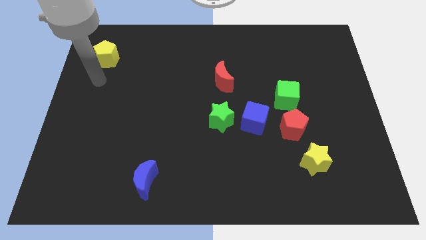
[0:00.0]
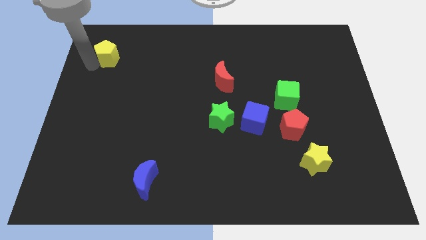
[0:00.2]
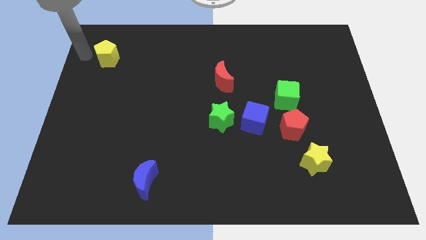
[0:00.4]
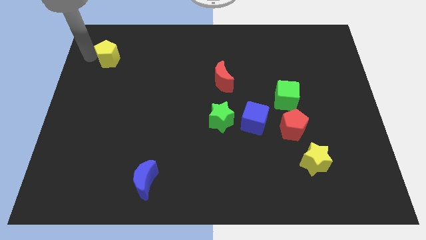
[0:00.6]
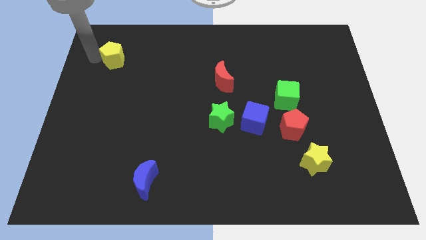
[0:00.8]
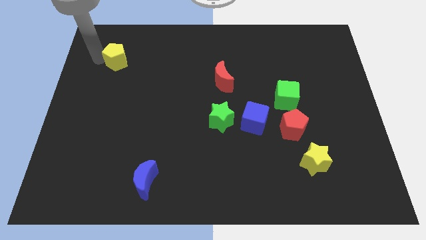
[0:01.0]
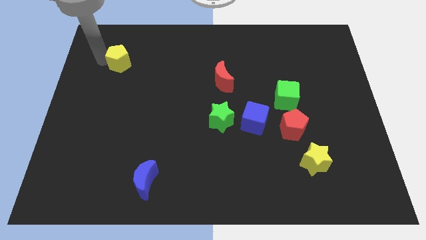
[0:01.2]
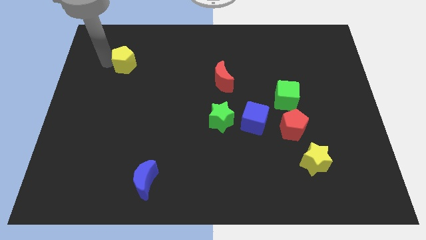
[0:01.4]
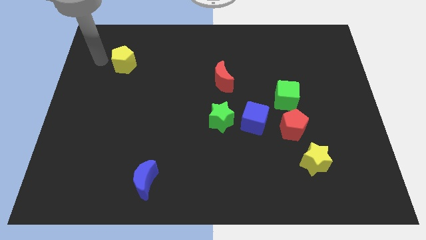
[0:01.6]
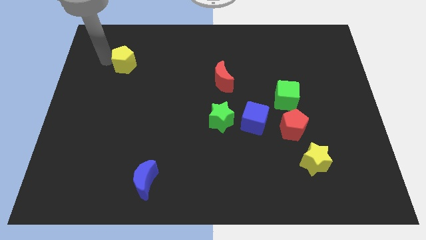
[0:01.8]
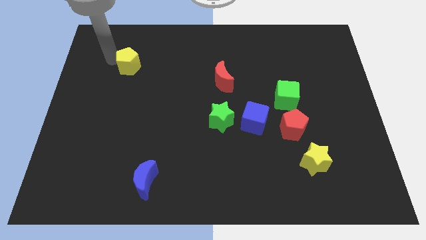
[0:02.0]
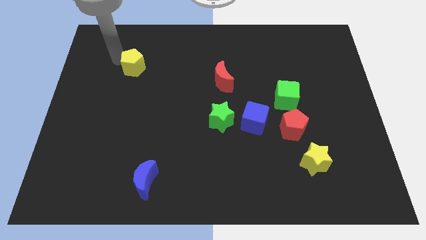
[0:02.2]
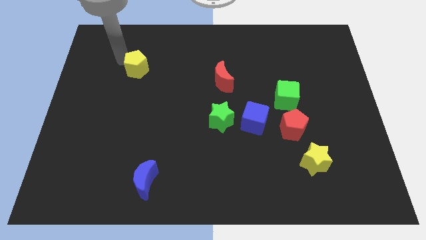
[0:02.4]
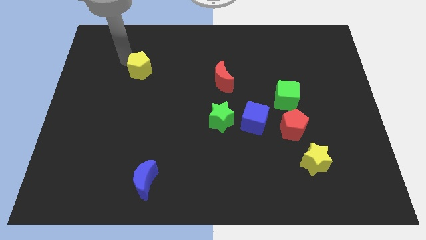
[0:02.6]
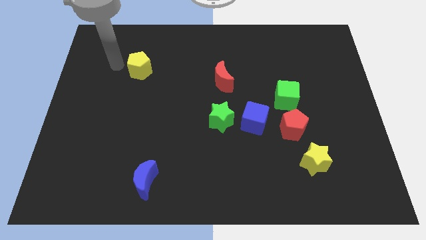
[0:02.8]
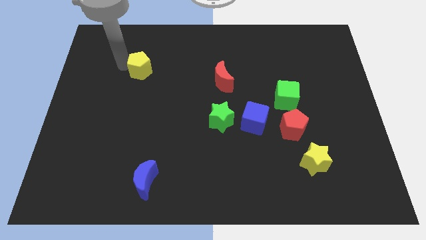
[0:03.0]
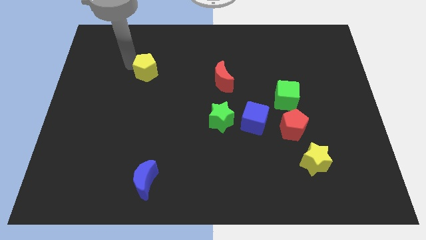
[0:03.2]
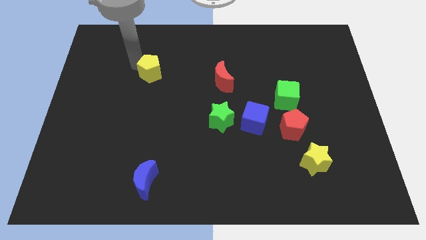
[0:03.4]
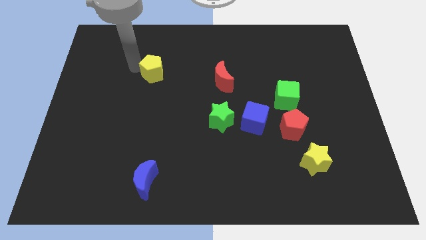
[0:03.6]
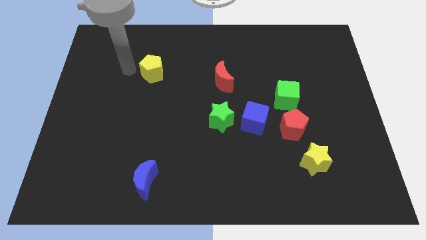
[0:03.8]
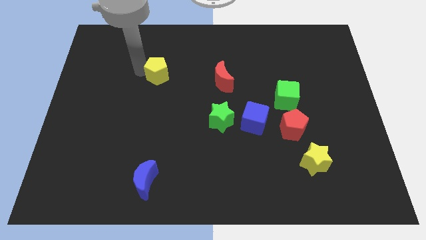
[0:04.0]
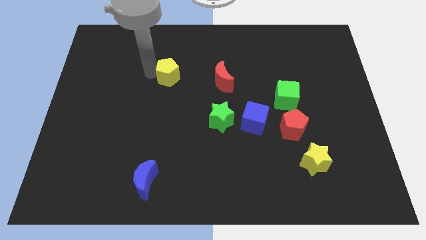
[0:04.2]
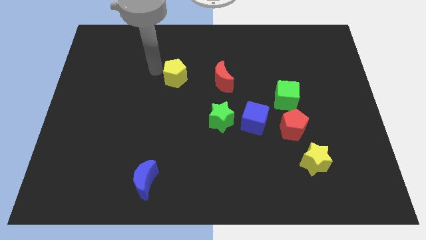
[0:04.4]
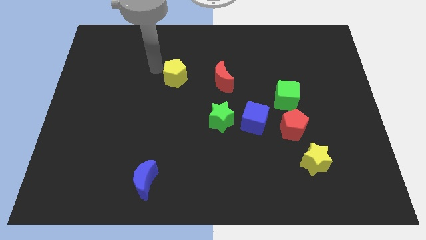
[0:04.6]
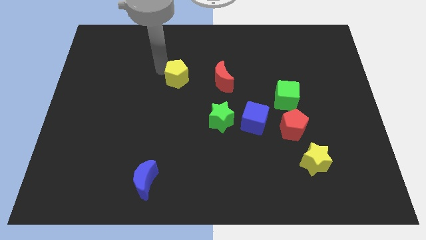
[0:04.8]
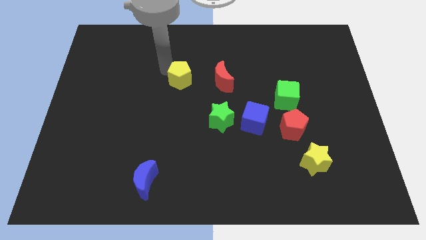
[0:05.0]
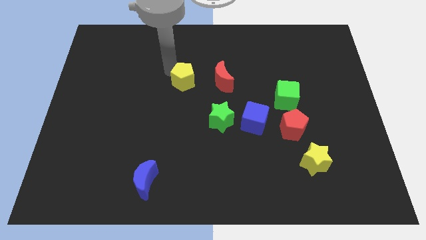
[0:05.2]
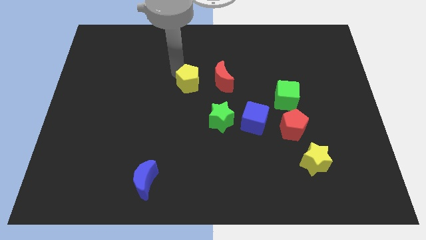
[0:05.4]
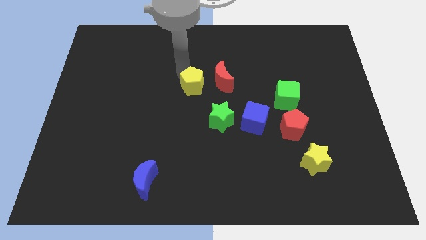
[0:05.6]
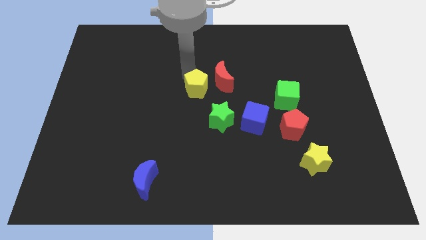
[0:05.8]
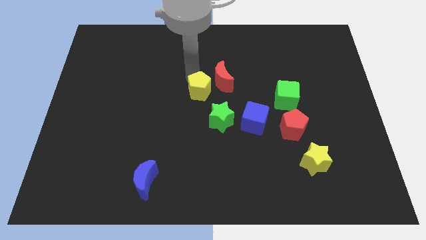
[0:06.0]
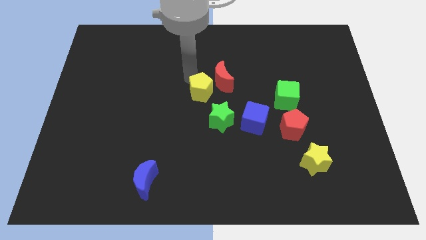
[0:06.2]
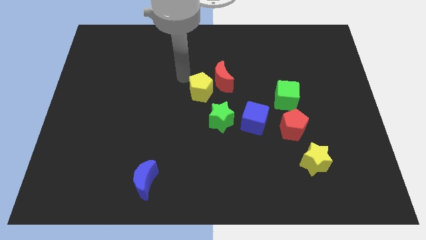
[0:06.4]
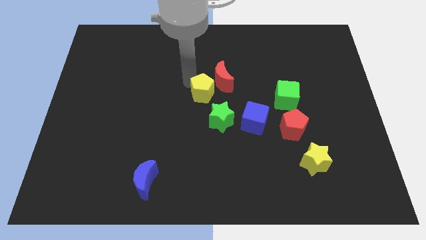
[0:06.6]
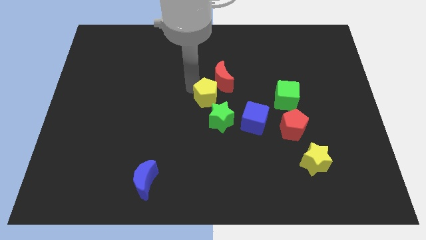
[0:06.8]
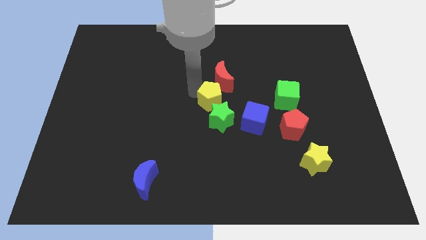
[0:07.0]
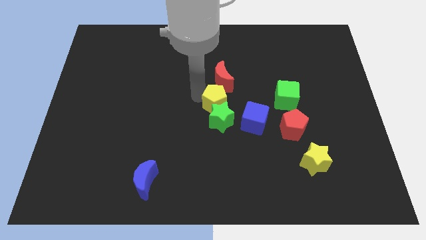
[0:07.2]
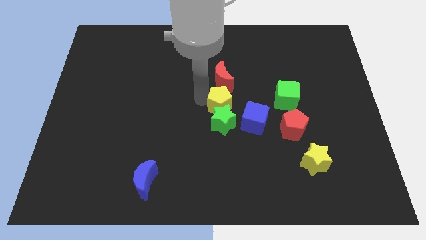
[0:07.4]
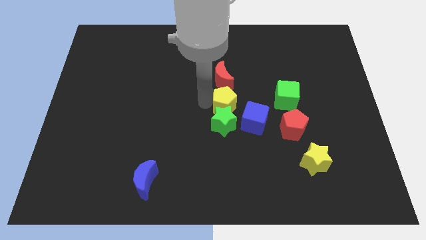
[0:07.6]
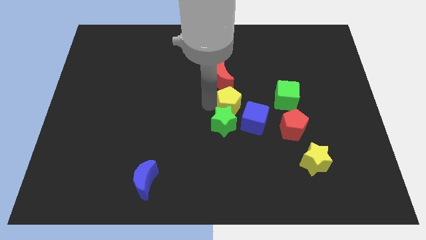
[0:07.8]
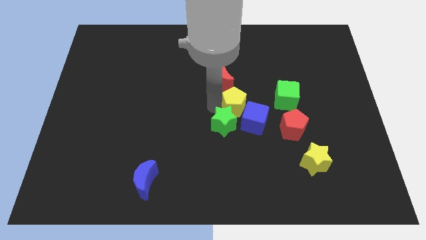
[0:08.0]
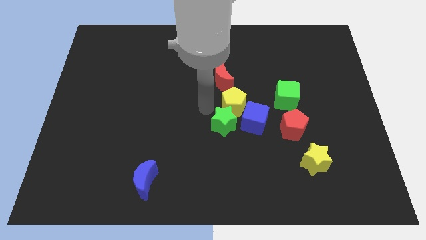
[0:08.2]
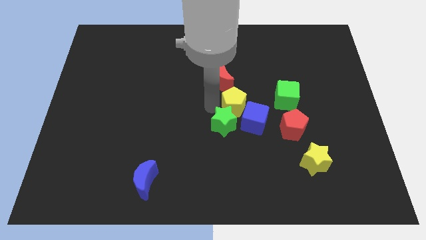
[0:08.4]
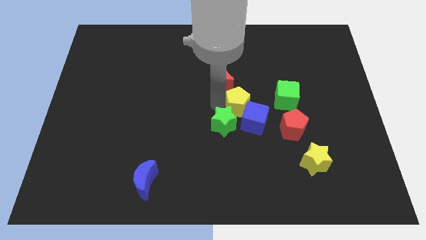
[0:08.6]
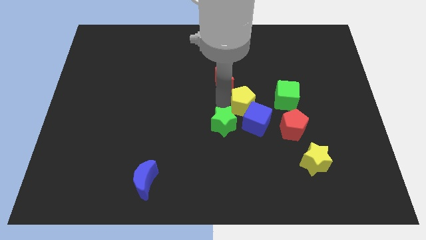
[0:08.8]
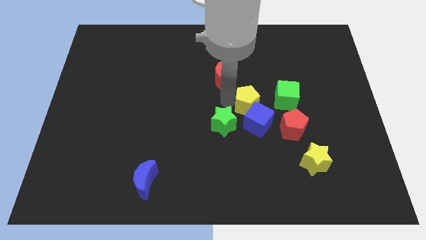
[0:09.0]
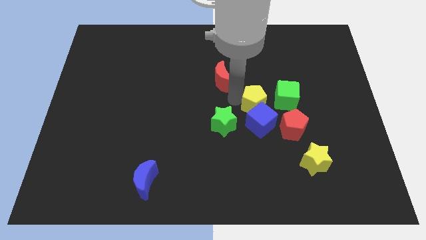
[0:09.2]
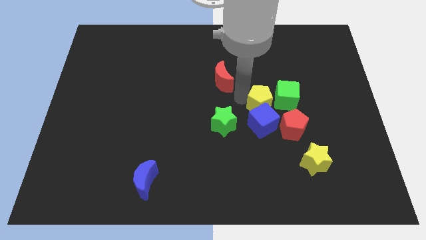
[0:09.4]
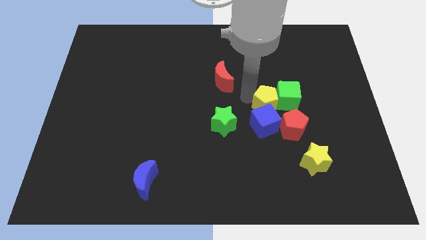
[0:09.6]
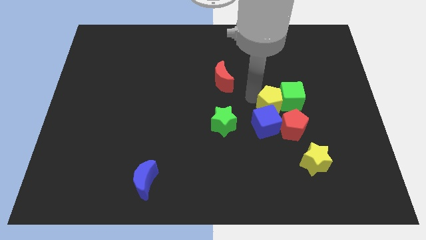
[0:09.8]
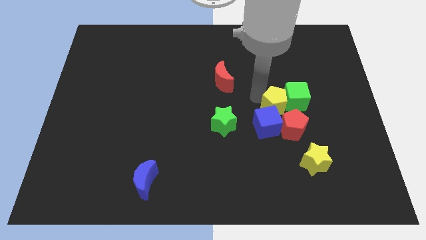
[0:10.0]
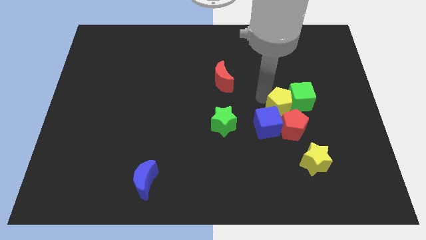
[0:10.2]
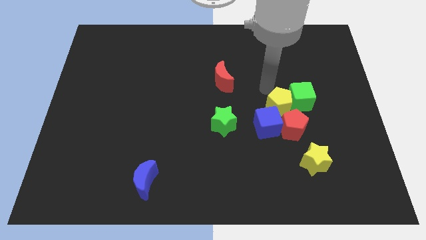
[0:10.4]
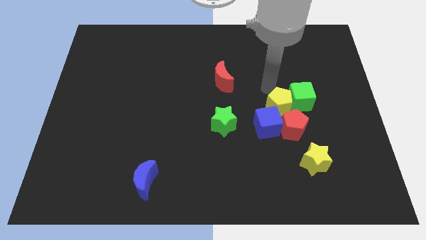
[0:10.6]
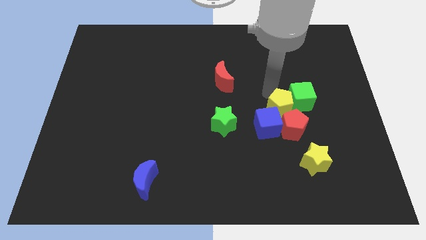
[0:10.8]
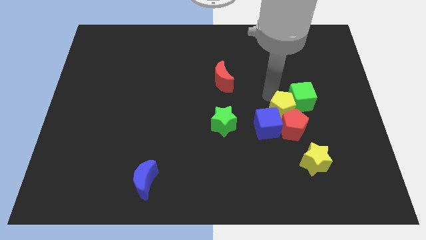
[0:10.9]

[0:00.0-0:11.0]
move the yellow pentagon close to the red pentagon

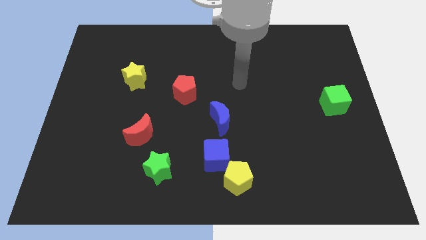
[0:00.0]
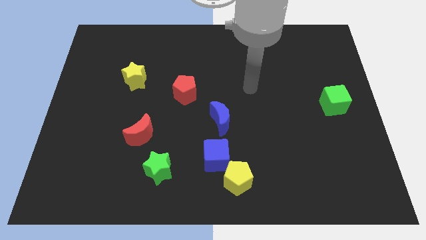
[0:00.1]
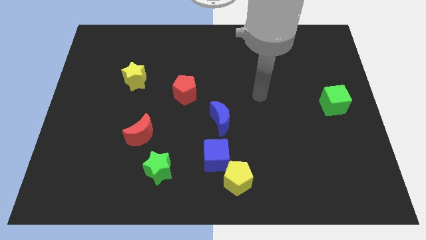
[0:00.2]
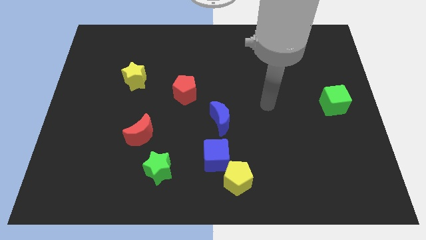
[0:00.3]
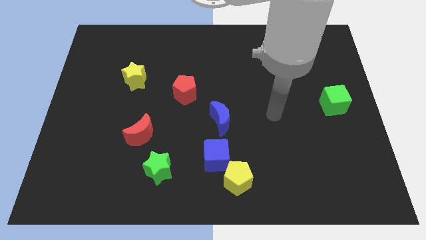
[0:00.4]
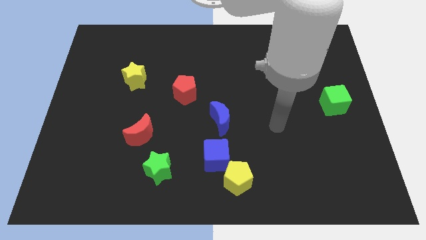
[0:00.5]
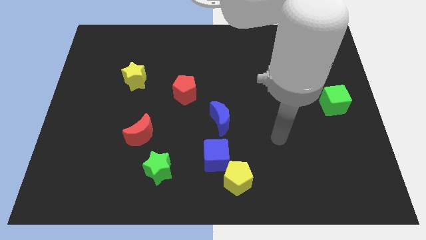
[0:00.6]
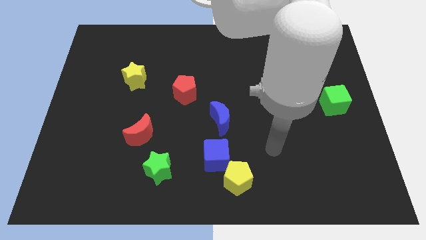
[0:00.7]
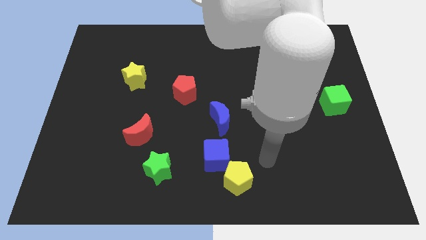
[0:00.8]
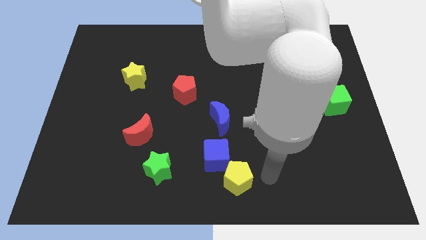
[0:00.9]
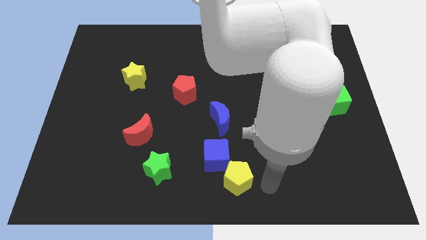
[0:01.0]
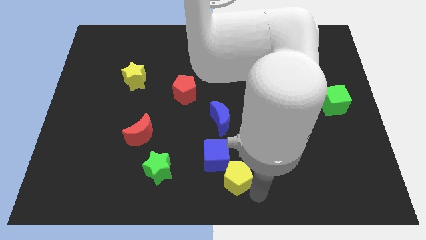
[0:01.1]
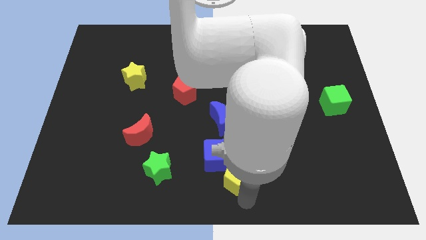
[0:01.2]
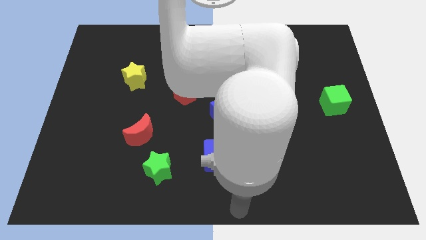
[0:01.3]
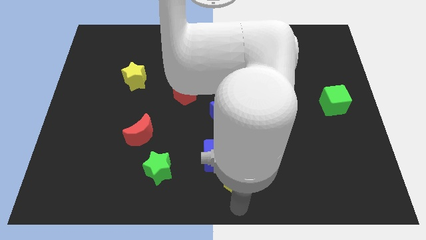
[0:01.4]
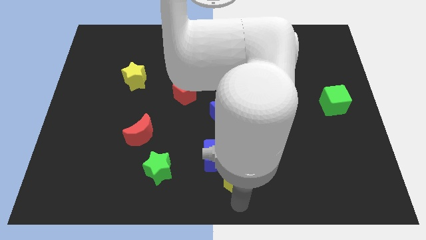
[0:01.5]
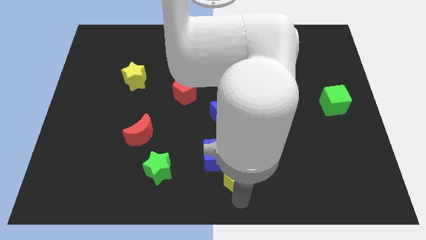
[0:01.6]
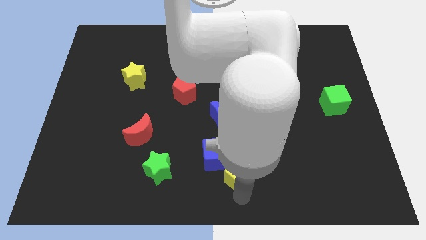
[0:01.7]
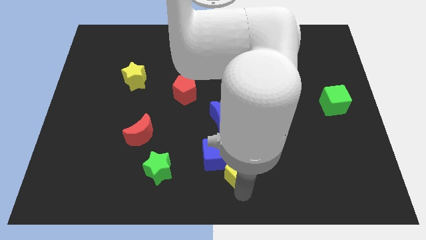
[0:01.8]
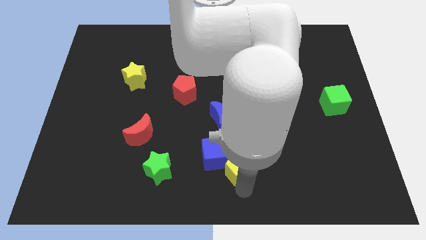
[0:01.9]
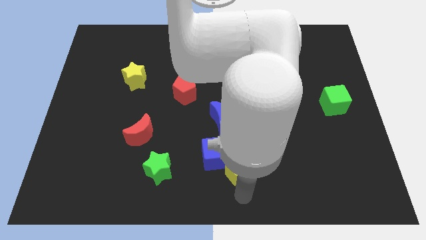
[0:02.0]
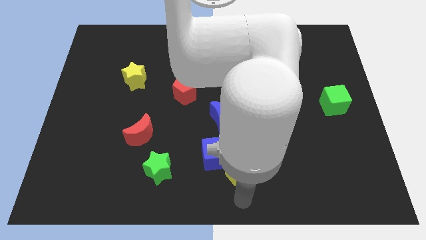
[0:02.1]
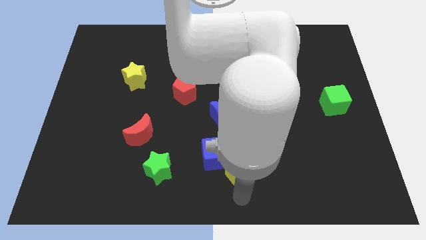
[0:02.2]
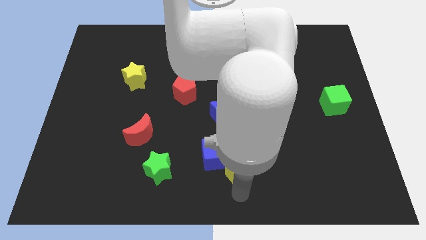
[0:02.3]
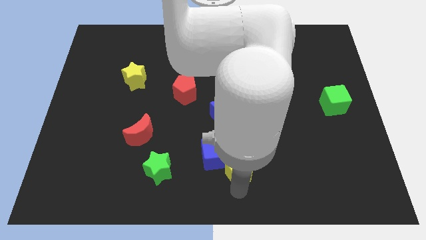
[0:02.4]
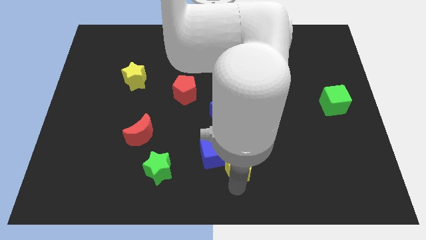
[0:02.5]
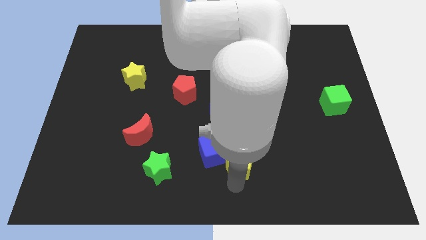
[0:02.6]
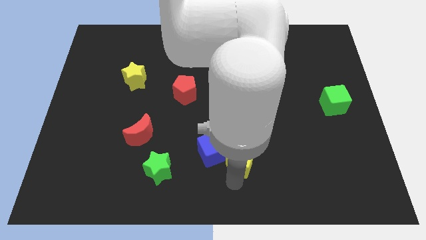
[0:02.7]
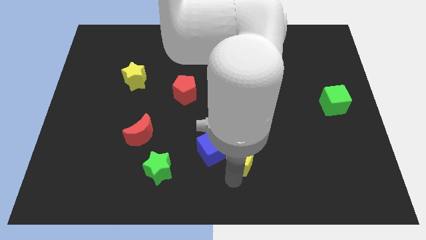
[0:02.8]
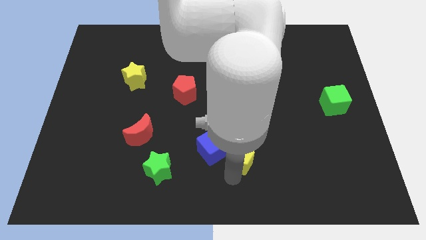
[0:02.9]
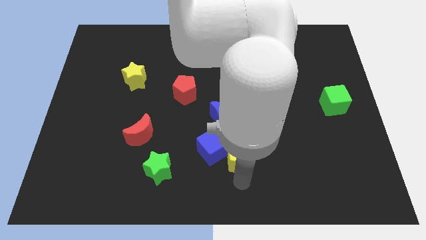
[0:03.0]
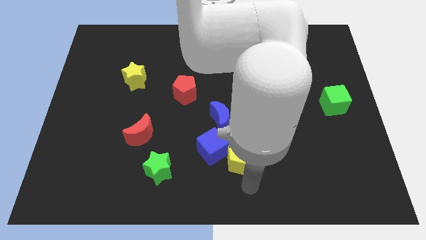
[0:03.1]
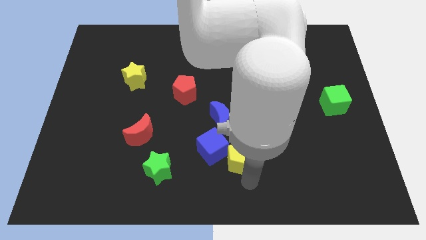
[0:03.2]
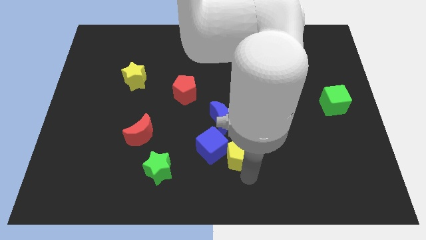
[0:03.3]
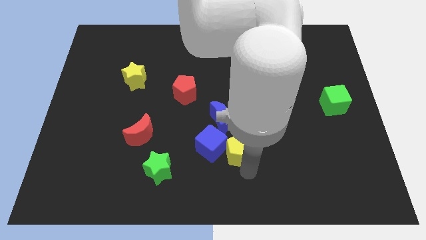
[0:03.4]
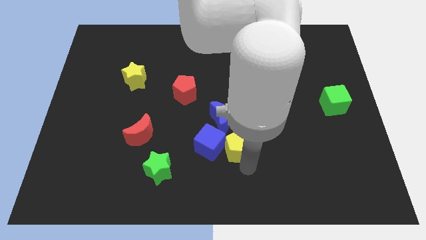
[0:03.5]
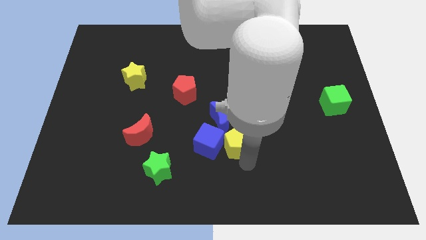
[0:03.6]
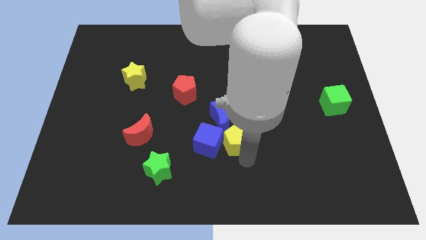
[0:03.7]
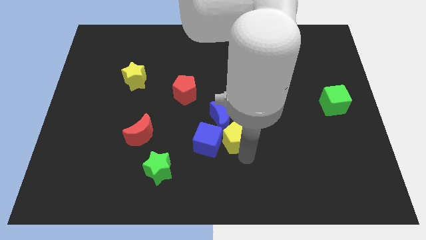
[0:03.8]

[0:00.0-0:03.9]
put the yellow pentagon close to the blue moon
